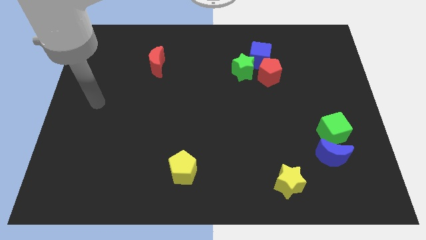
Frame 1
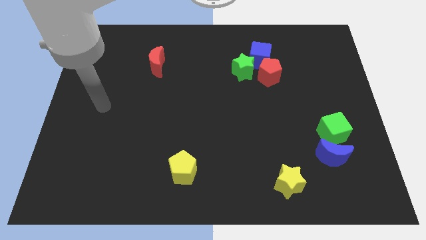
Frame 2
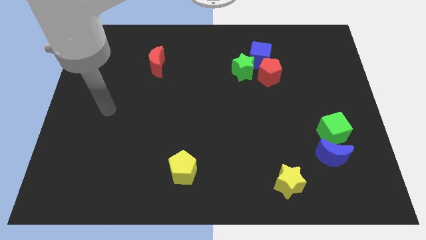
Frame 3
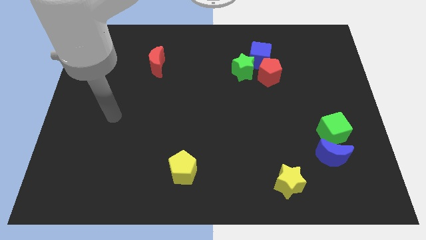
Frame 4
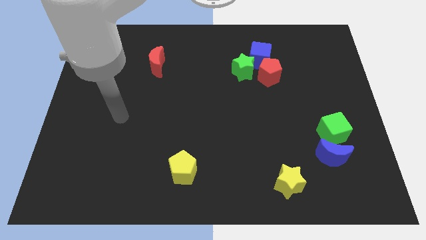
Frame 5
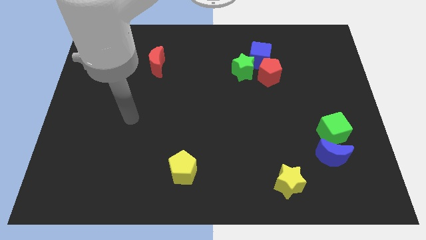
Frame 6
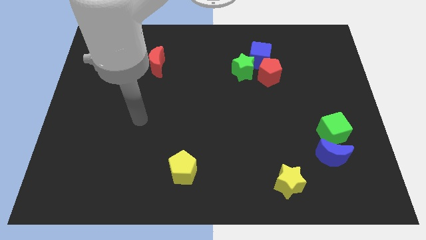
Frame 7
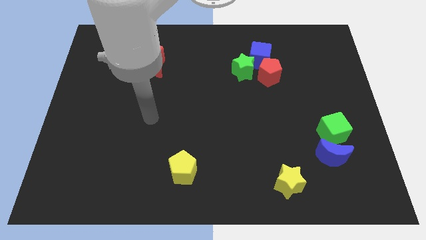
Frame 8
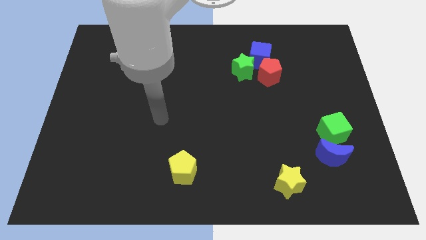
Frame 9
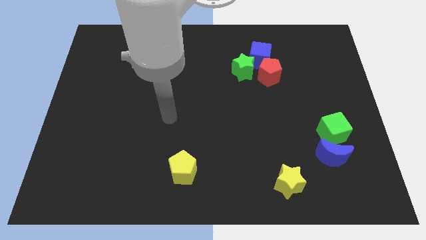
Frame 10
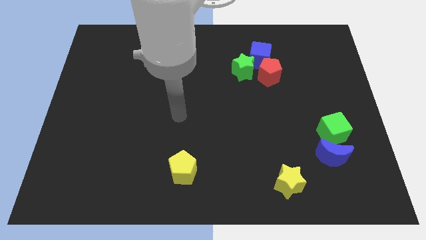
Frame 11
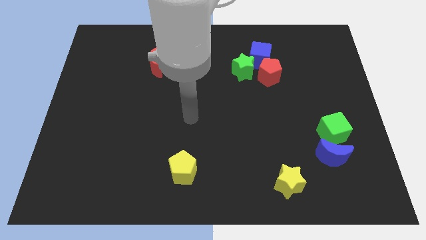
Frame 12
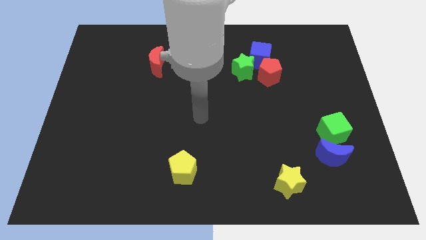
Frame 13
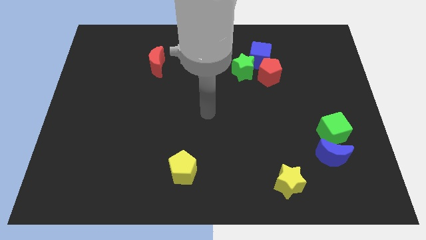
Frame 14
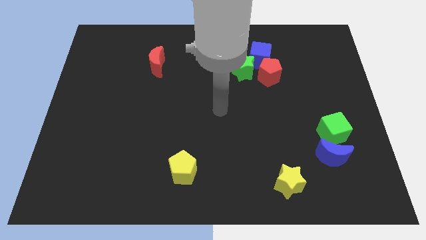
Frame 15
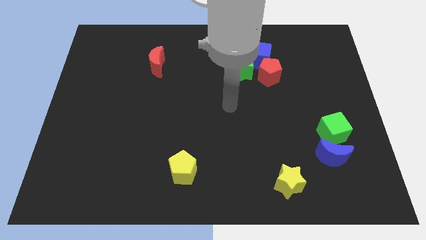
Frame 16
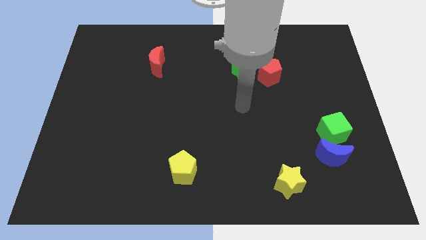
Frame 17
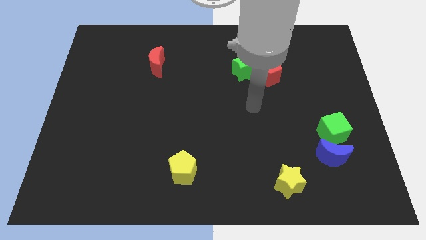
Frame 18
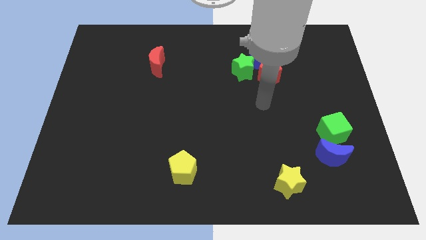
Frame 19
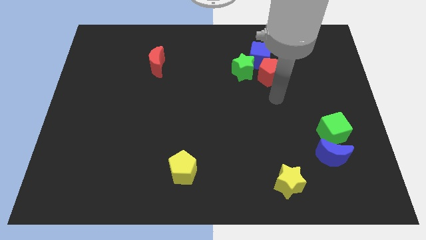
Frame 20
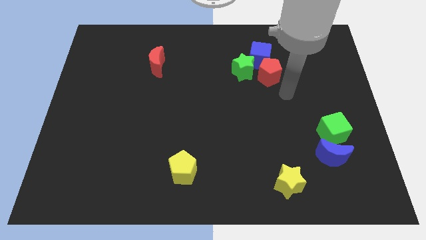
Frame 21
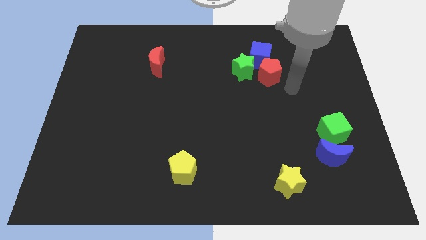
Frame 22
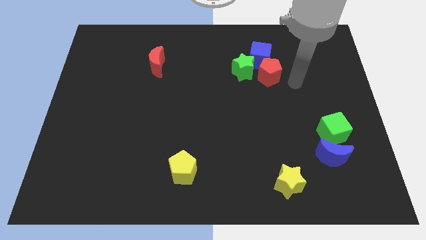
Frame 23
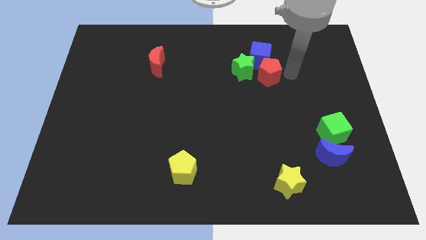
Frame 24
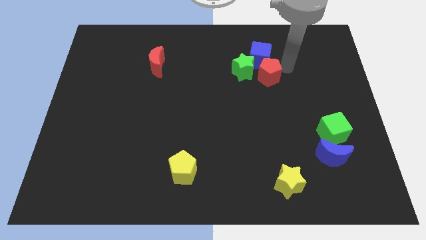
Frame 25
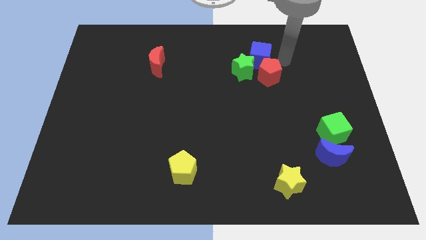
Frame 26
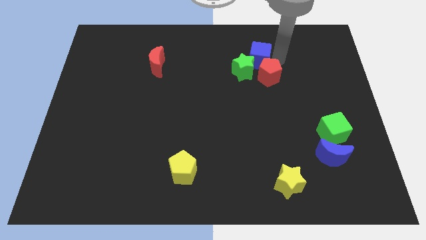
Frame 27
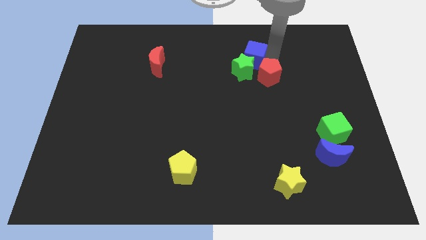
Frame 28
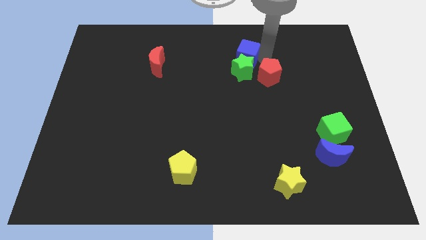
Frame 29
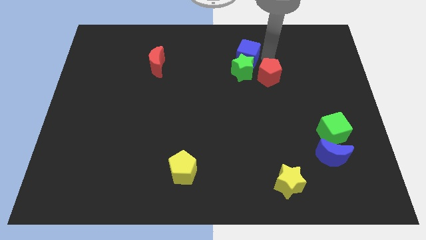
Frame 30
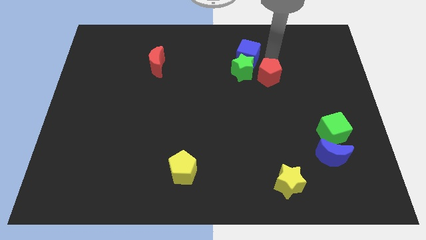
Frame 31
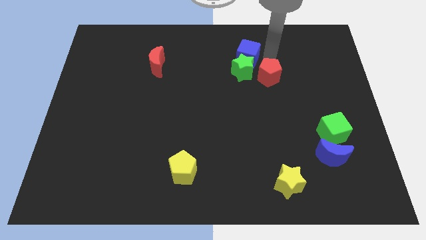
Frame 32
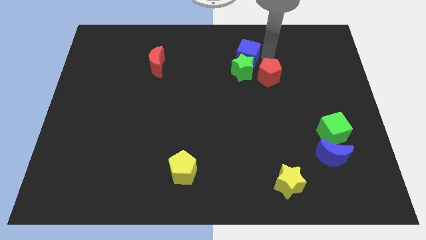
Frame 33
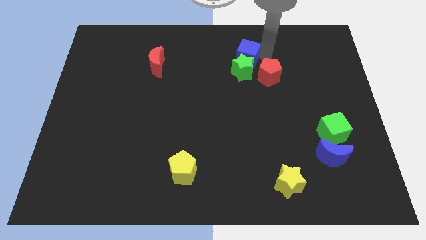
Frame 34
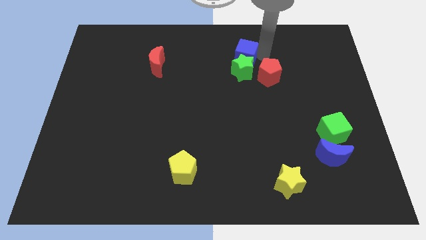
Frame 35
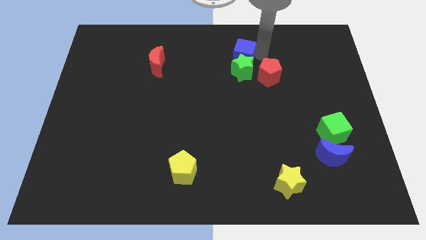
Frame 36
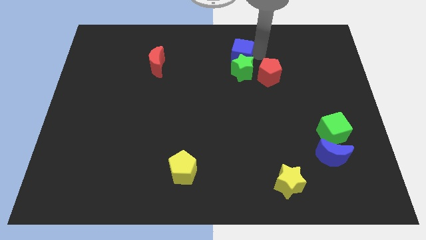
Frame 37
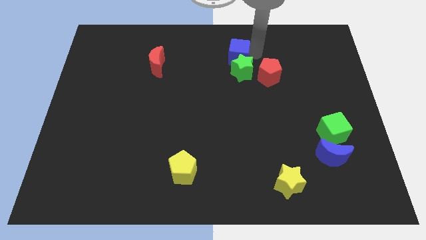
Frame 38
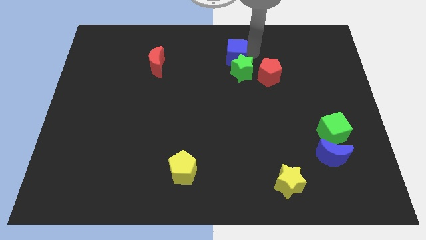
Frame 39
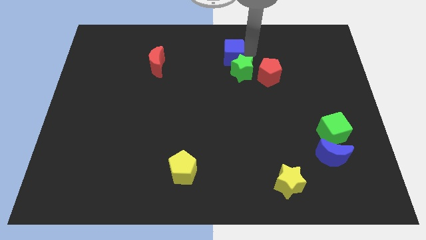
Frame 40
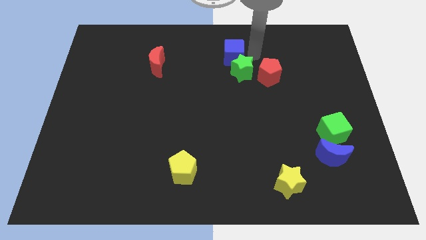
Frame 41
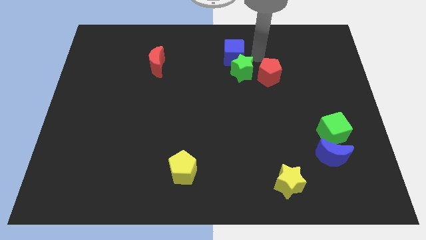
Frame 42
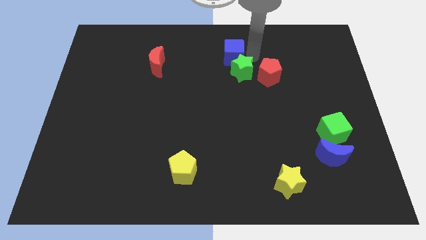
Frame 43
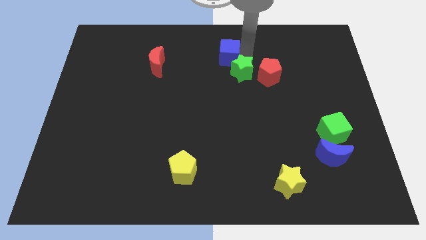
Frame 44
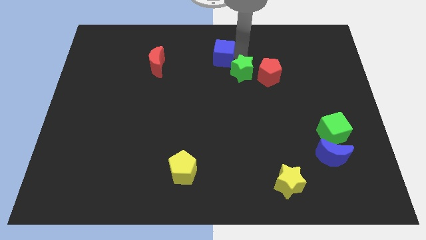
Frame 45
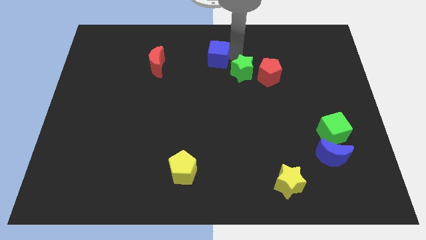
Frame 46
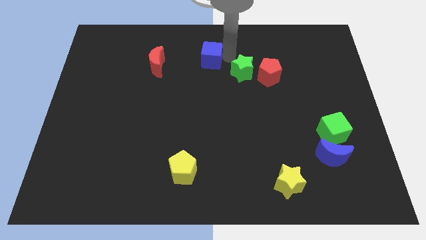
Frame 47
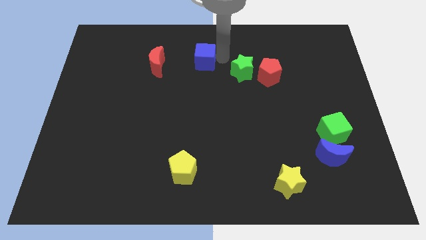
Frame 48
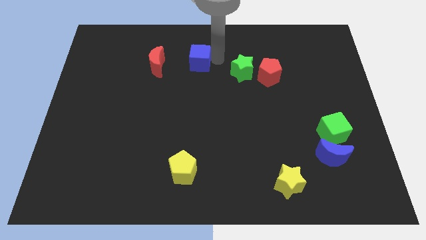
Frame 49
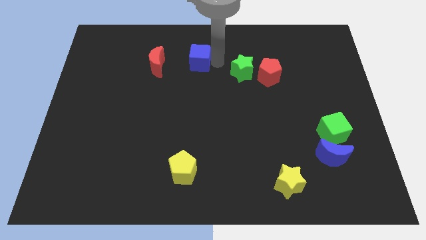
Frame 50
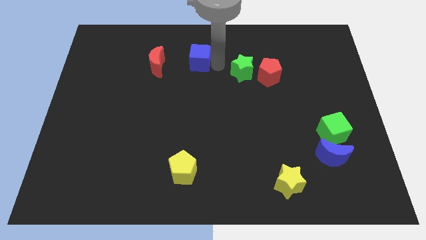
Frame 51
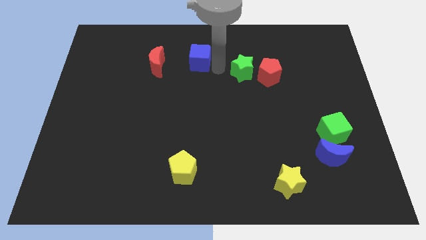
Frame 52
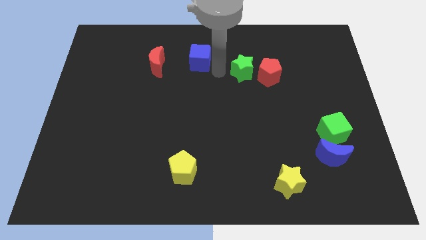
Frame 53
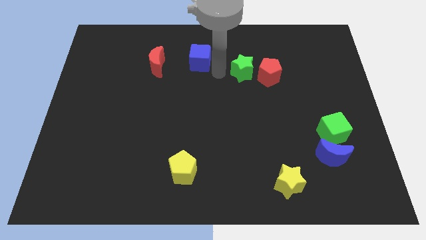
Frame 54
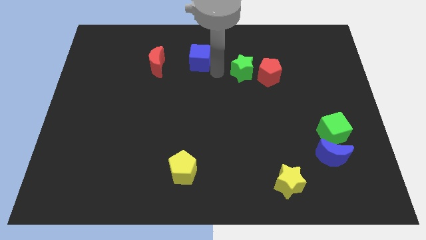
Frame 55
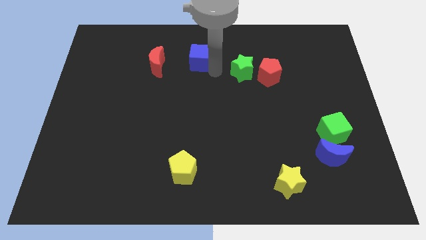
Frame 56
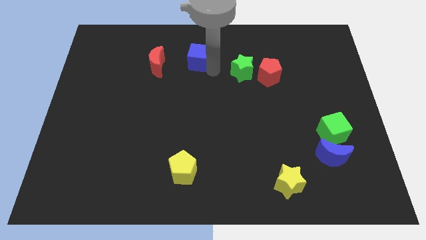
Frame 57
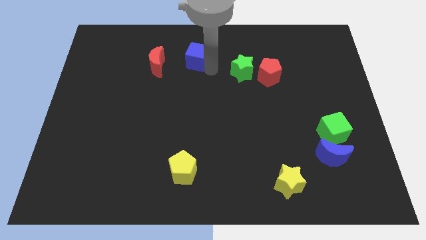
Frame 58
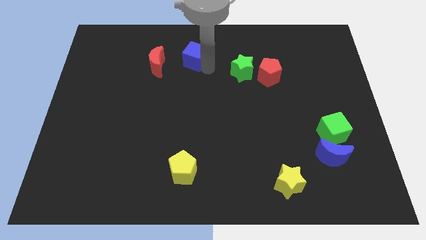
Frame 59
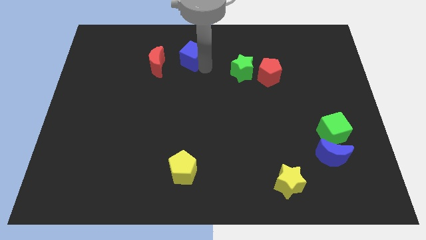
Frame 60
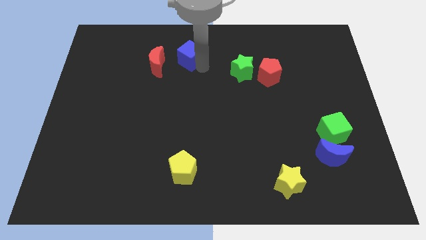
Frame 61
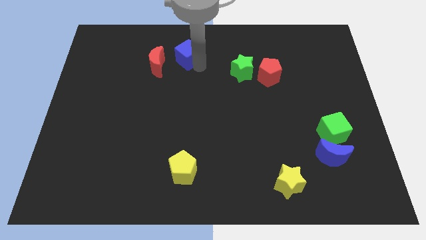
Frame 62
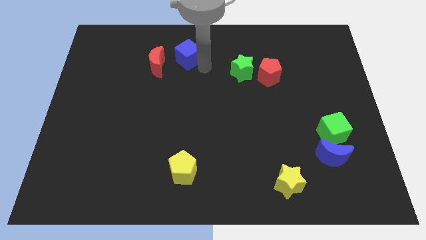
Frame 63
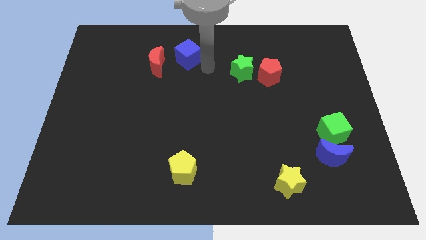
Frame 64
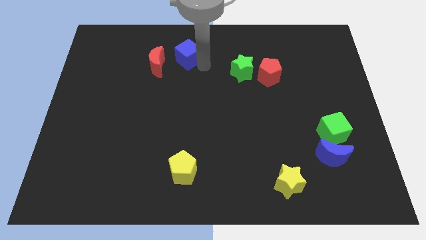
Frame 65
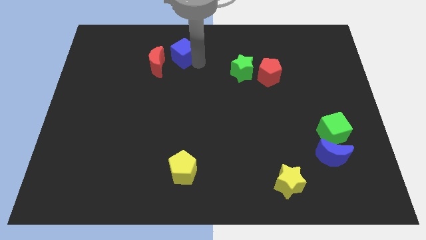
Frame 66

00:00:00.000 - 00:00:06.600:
push the blue cube left

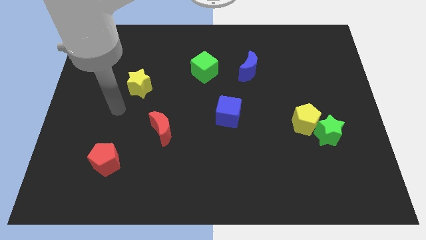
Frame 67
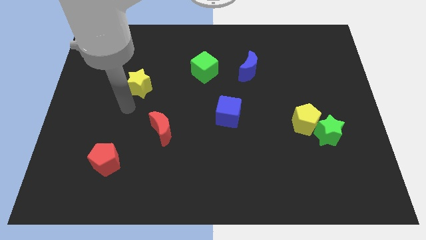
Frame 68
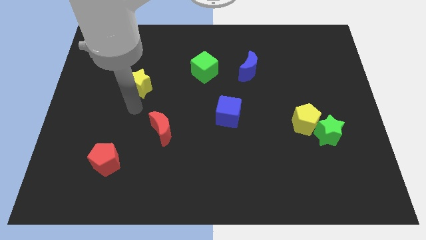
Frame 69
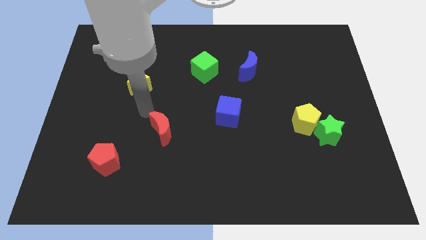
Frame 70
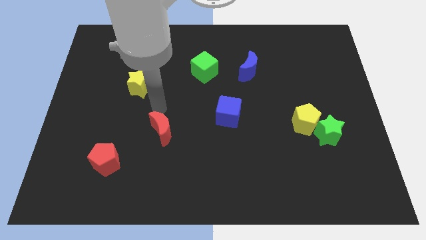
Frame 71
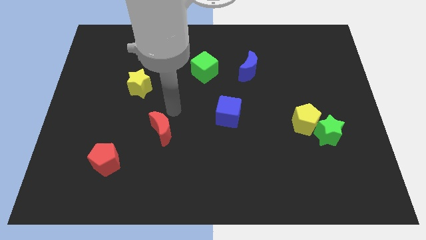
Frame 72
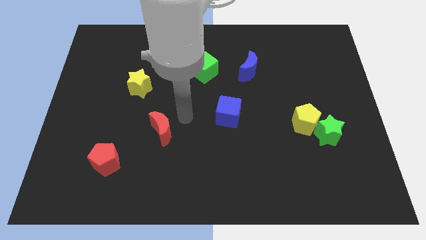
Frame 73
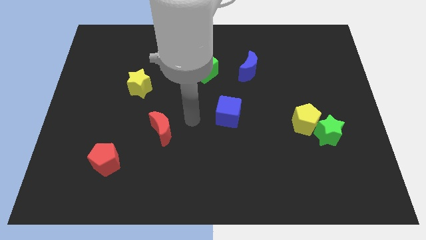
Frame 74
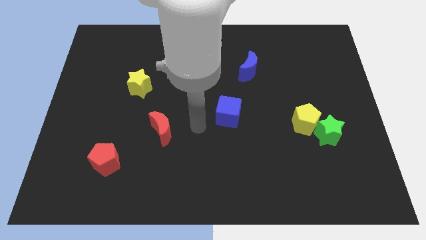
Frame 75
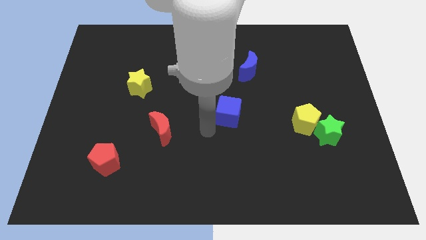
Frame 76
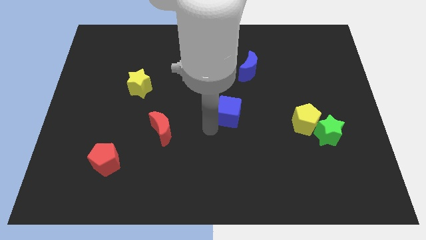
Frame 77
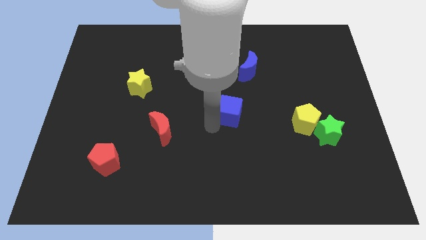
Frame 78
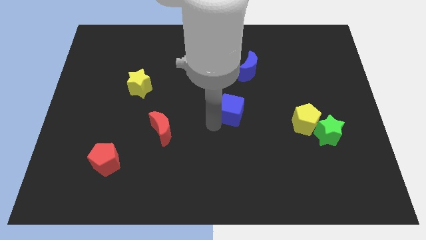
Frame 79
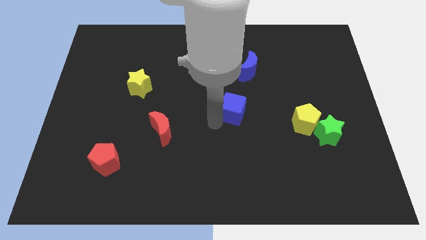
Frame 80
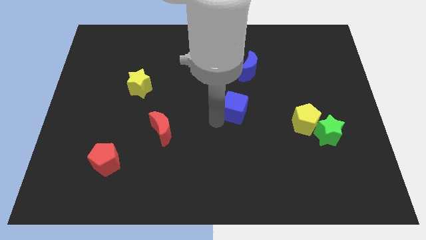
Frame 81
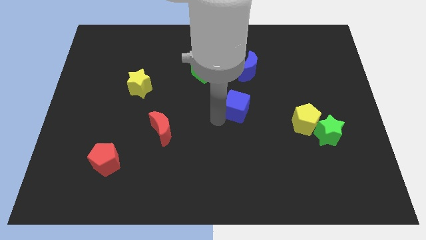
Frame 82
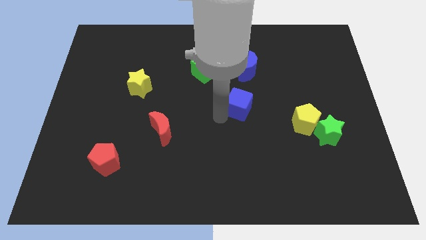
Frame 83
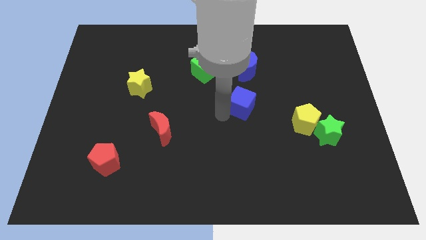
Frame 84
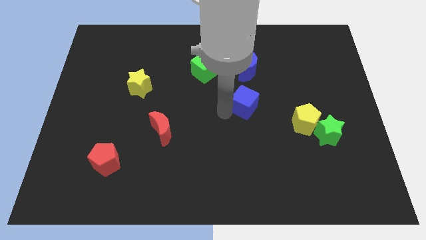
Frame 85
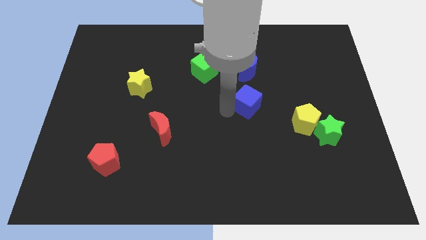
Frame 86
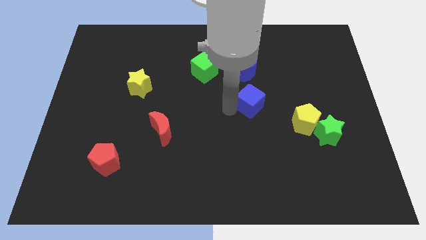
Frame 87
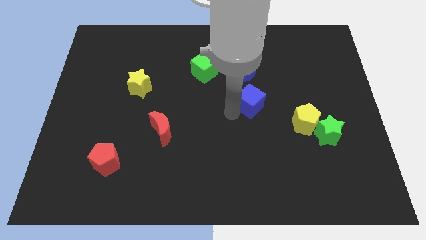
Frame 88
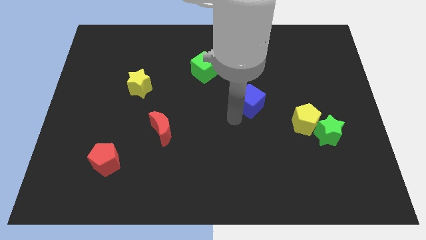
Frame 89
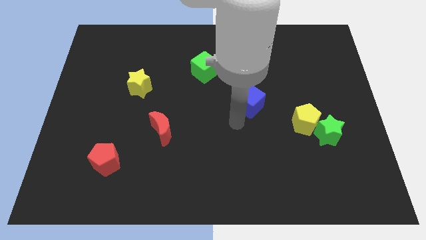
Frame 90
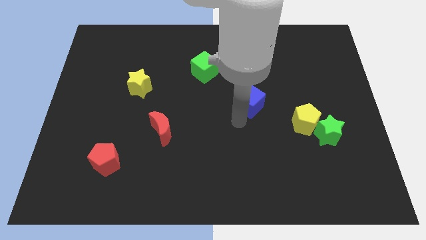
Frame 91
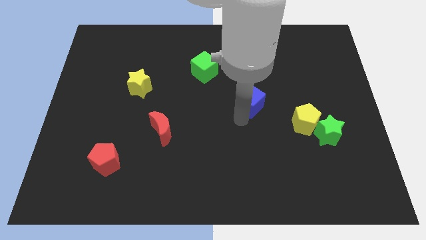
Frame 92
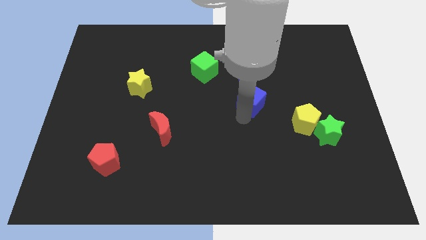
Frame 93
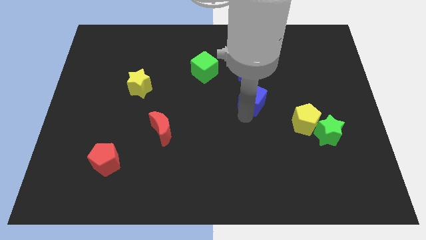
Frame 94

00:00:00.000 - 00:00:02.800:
slightly push the blue cube upwards and to the right diagonally
